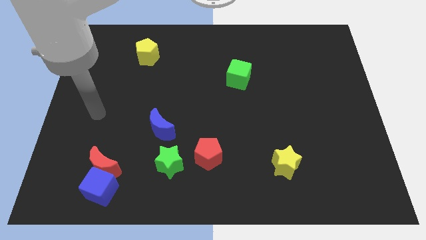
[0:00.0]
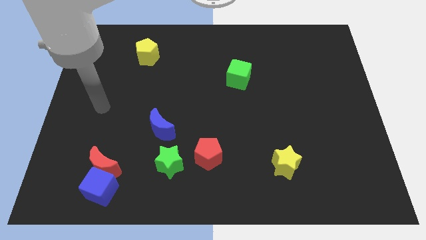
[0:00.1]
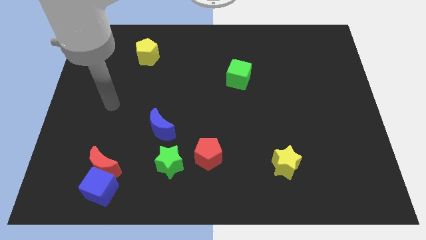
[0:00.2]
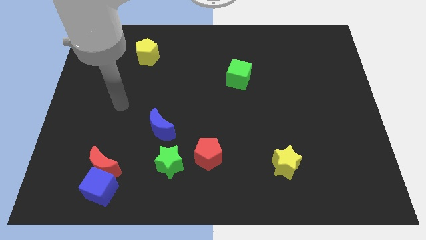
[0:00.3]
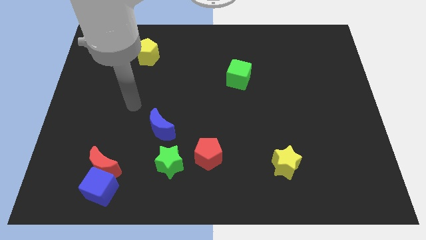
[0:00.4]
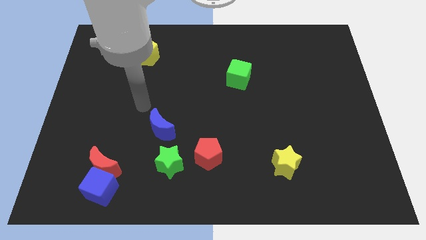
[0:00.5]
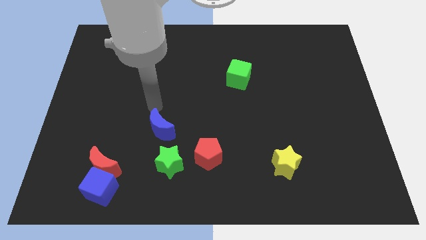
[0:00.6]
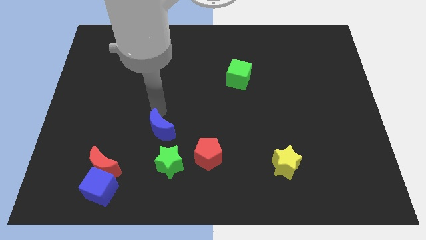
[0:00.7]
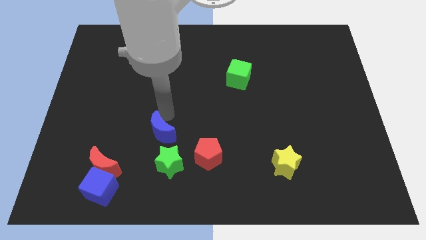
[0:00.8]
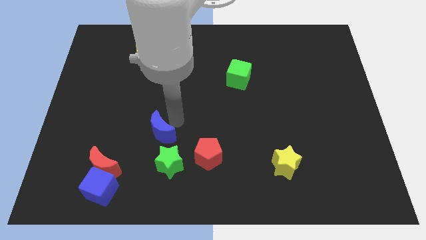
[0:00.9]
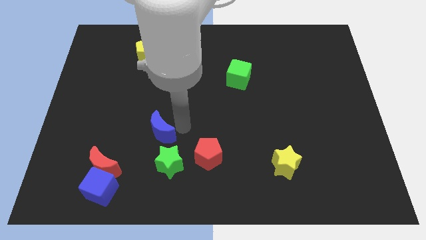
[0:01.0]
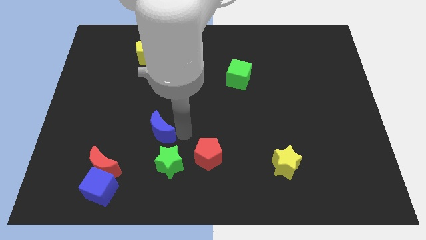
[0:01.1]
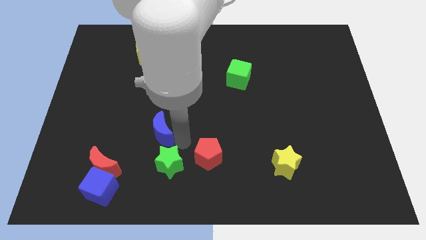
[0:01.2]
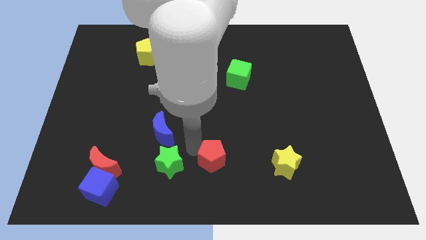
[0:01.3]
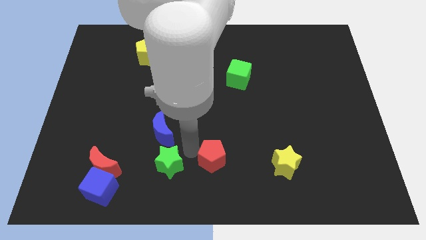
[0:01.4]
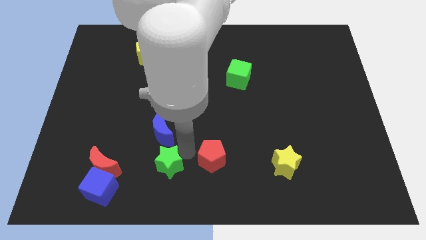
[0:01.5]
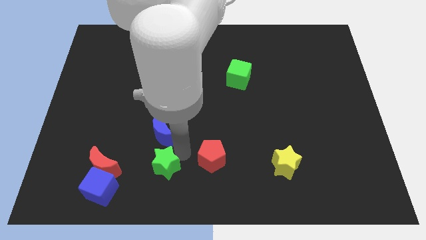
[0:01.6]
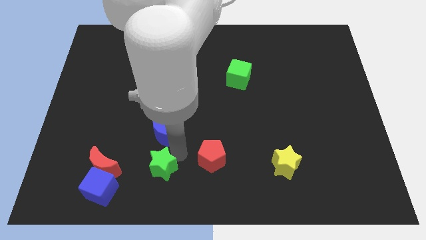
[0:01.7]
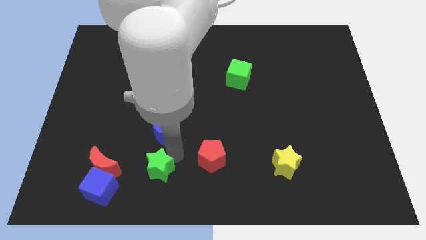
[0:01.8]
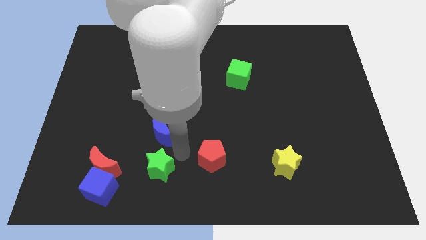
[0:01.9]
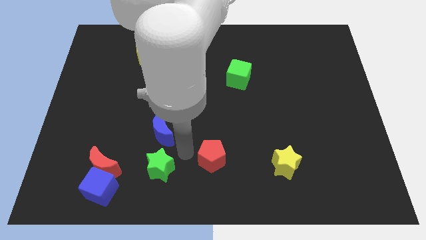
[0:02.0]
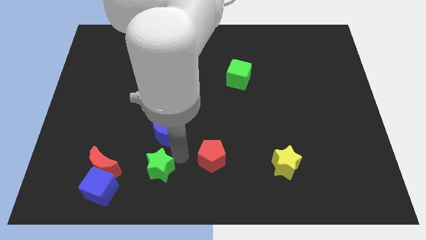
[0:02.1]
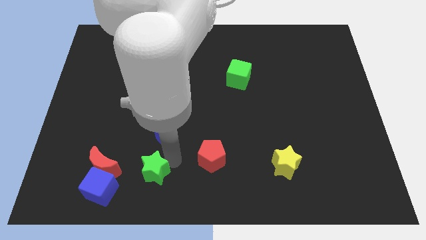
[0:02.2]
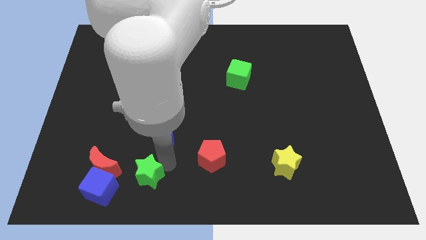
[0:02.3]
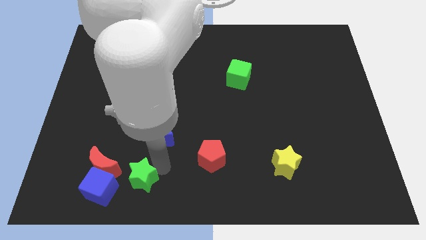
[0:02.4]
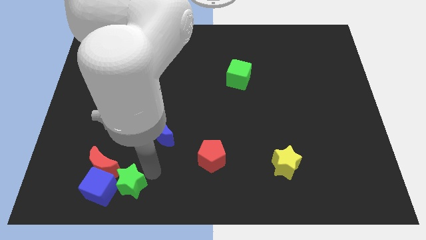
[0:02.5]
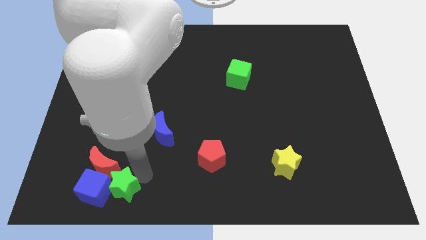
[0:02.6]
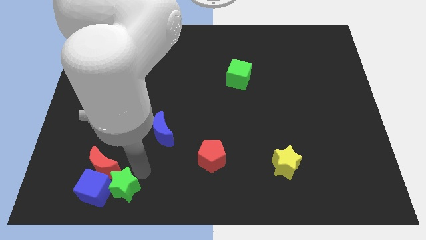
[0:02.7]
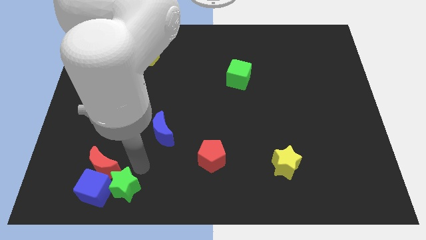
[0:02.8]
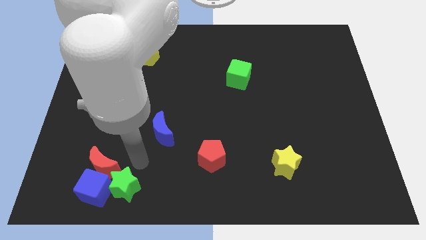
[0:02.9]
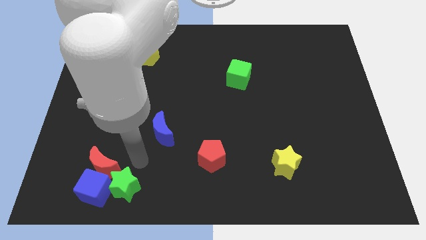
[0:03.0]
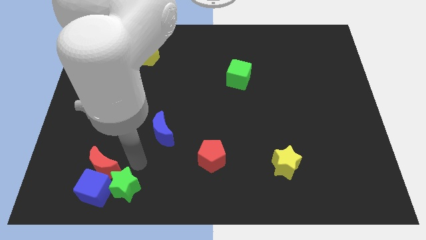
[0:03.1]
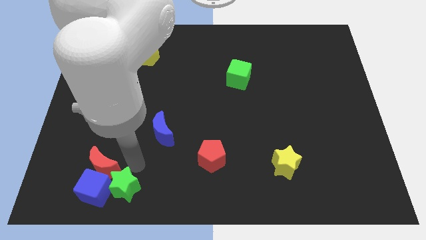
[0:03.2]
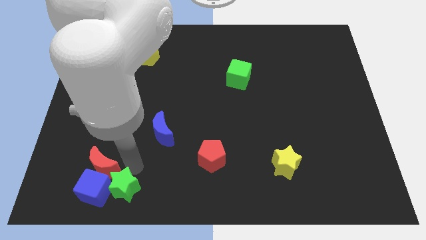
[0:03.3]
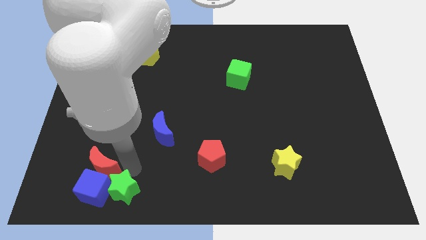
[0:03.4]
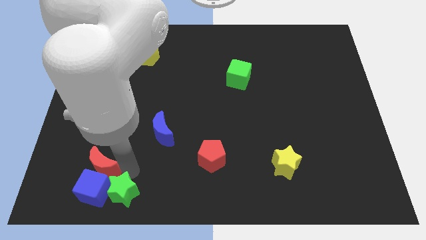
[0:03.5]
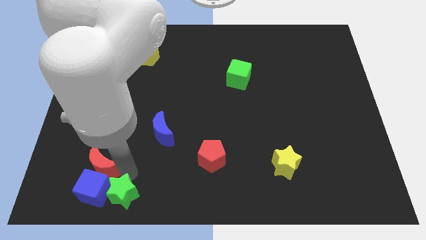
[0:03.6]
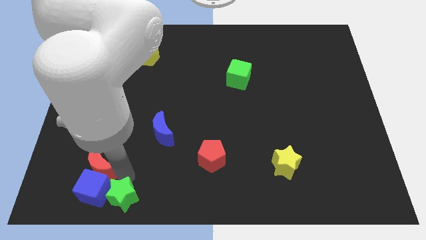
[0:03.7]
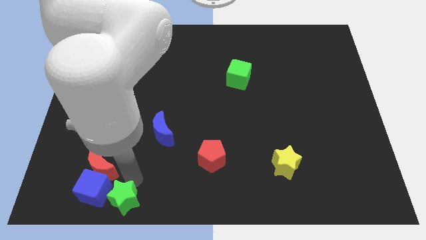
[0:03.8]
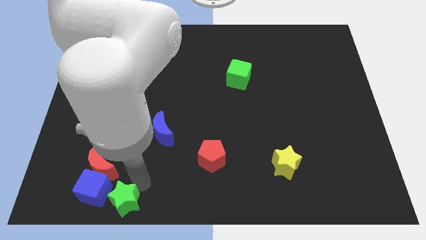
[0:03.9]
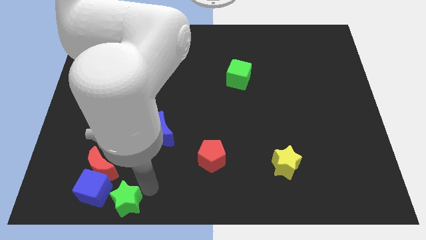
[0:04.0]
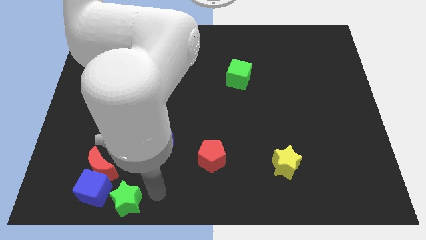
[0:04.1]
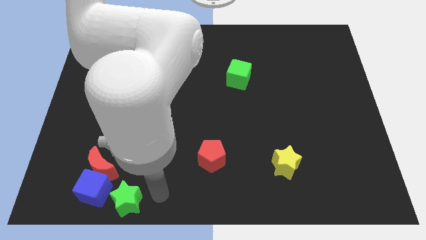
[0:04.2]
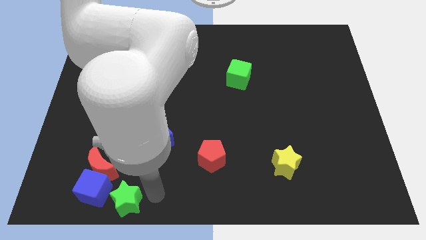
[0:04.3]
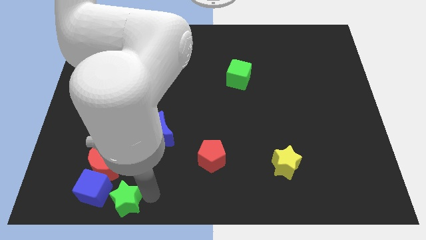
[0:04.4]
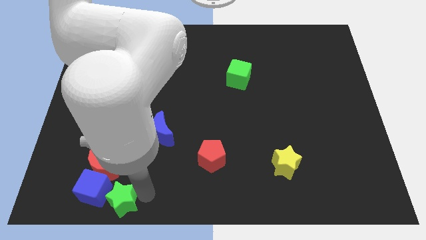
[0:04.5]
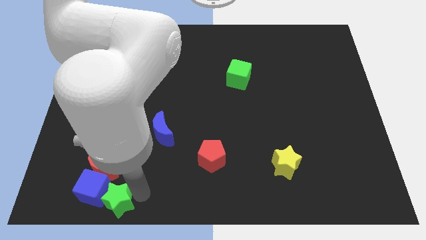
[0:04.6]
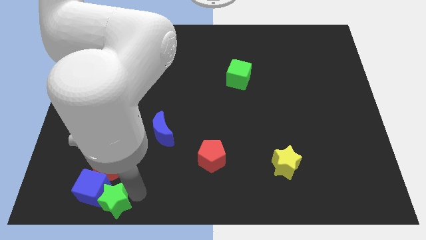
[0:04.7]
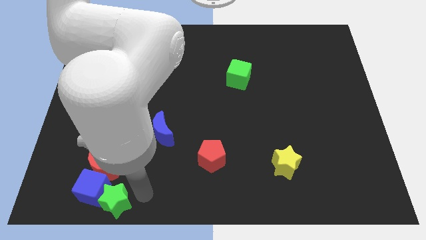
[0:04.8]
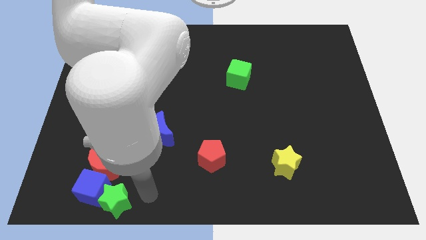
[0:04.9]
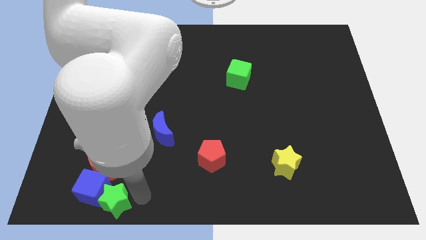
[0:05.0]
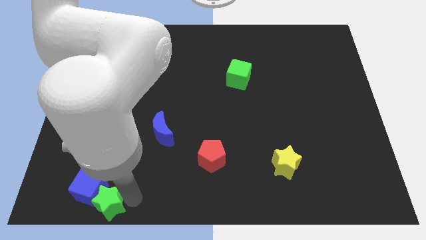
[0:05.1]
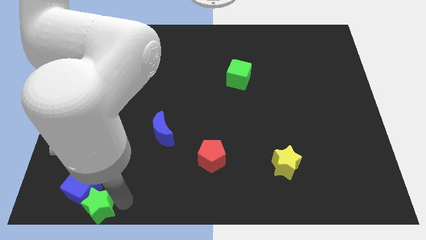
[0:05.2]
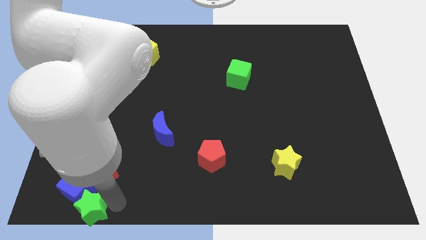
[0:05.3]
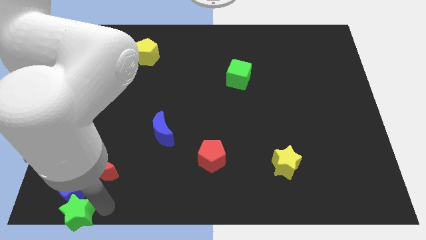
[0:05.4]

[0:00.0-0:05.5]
move the green star to the bottom left of the board
